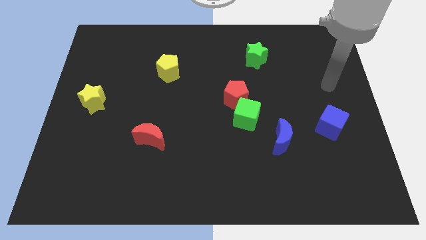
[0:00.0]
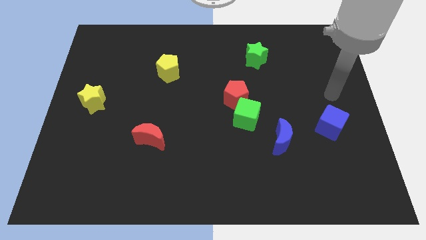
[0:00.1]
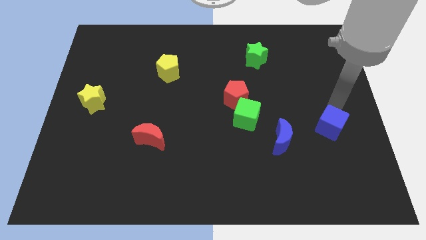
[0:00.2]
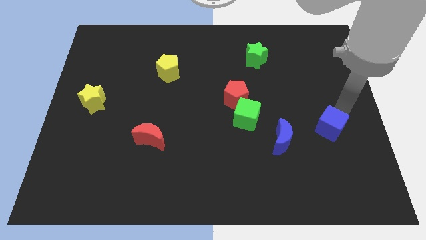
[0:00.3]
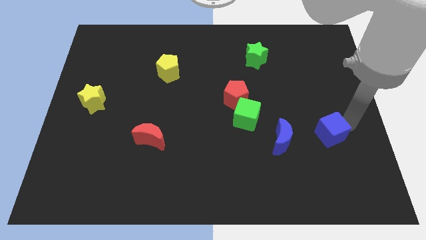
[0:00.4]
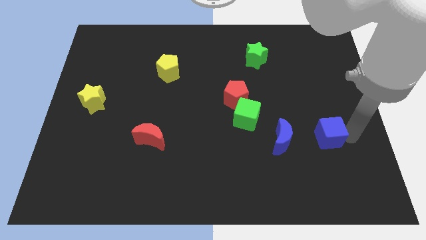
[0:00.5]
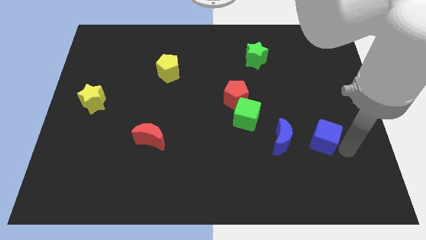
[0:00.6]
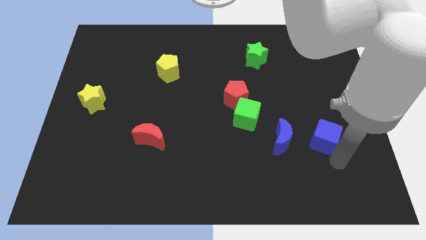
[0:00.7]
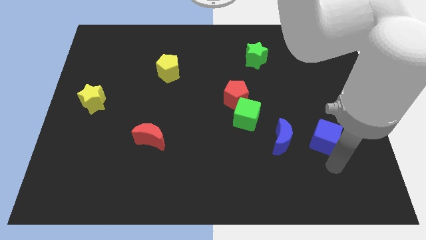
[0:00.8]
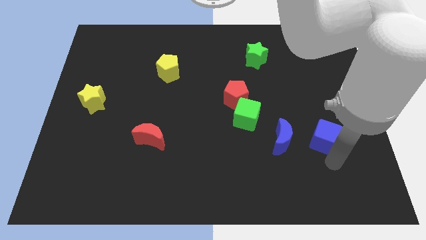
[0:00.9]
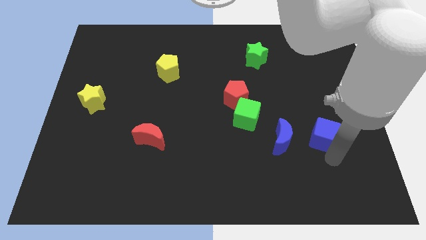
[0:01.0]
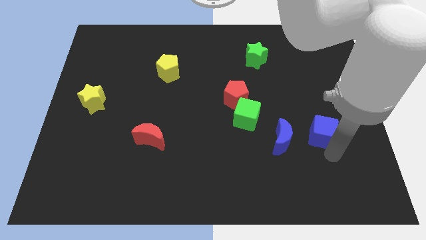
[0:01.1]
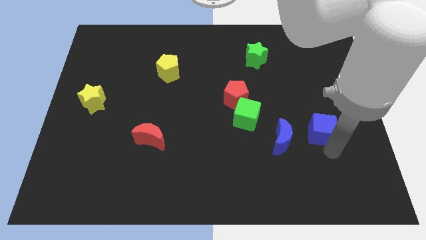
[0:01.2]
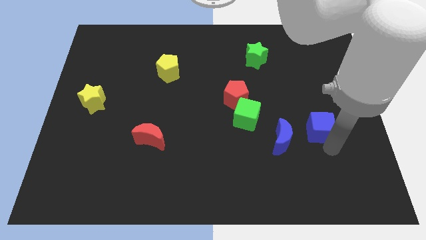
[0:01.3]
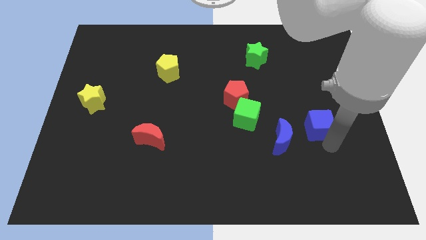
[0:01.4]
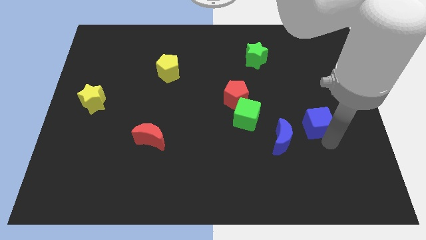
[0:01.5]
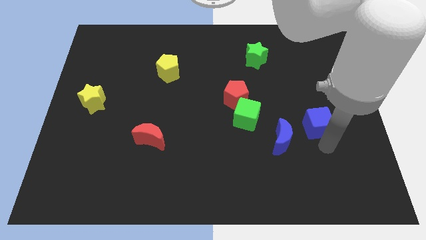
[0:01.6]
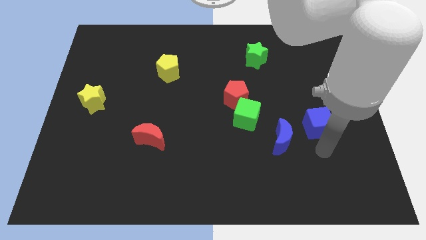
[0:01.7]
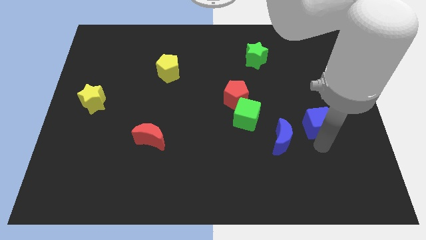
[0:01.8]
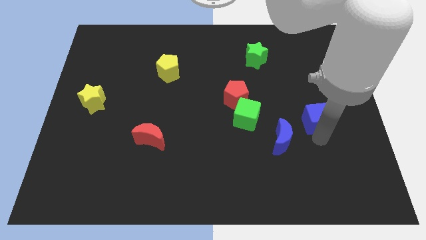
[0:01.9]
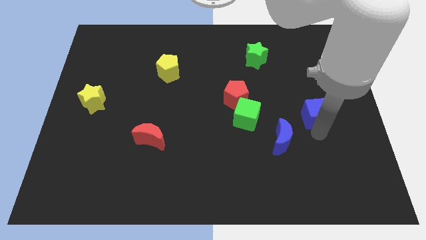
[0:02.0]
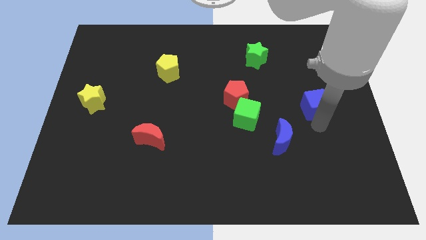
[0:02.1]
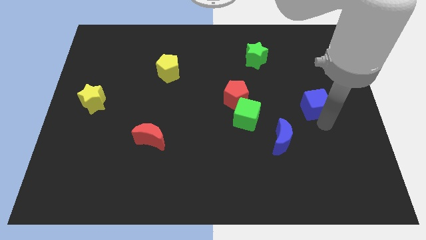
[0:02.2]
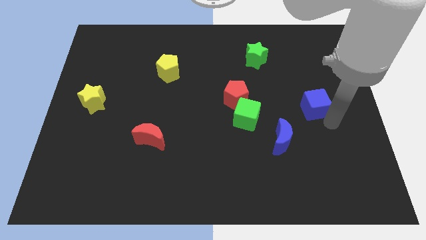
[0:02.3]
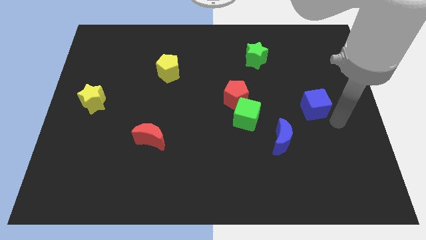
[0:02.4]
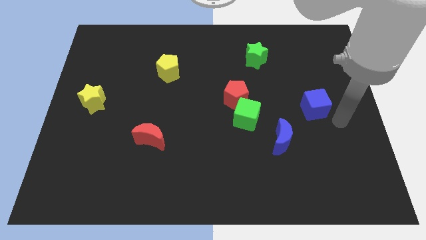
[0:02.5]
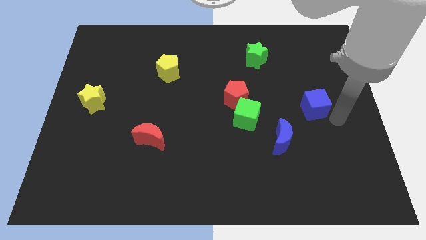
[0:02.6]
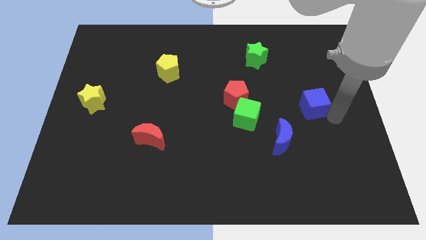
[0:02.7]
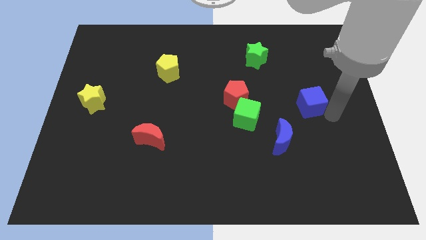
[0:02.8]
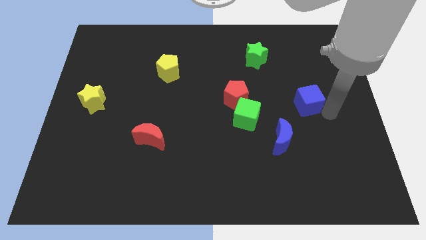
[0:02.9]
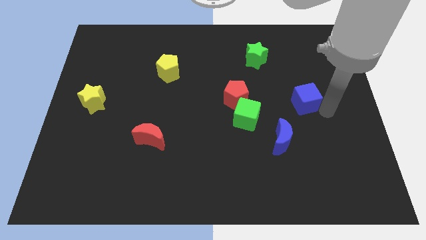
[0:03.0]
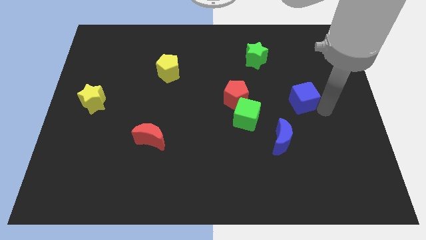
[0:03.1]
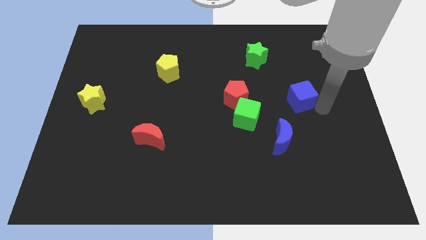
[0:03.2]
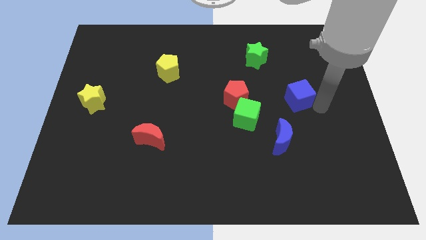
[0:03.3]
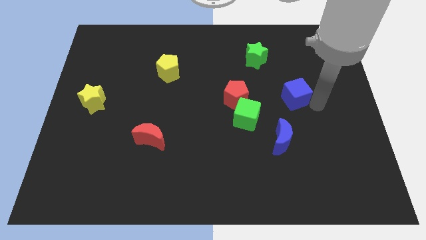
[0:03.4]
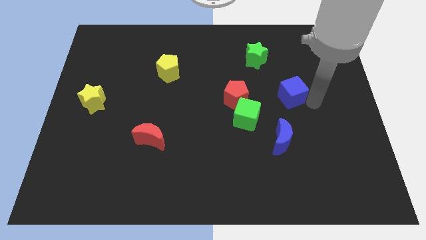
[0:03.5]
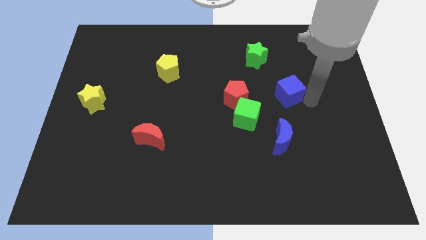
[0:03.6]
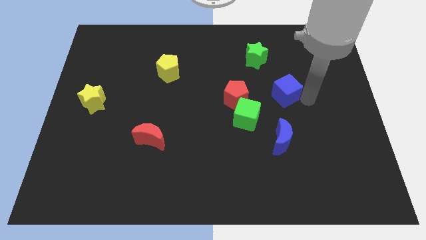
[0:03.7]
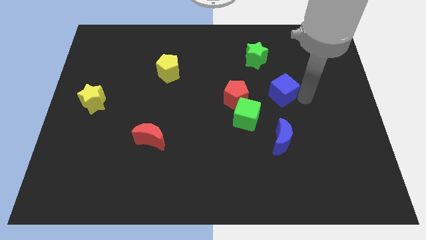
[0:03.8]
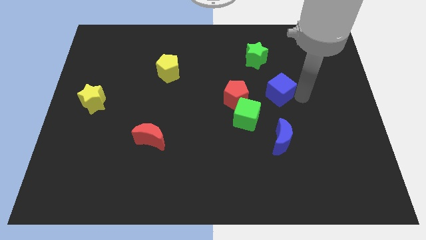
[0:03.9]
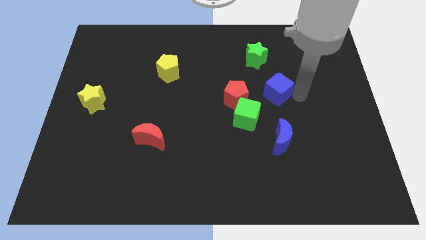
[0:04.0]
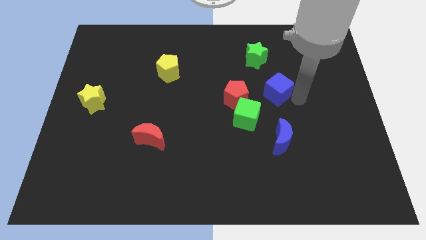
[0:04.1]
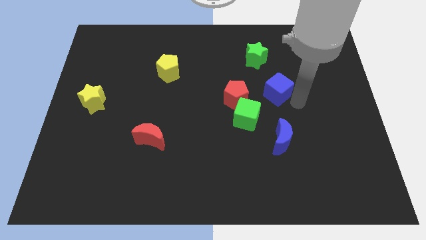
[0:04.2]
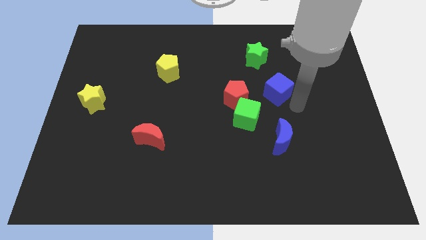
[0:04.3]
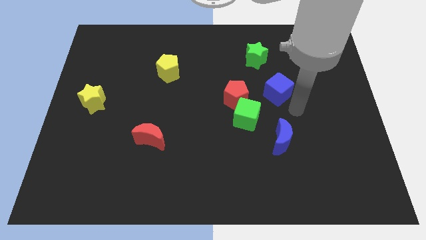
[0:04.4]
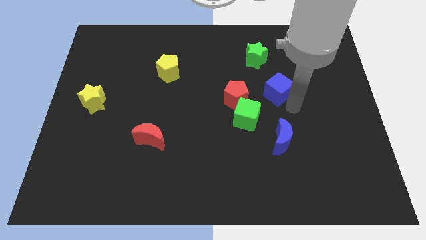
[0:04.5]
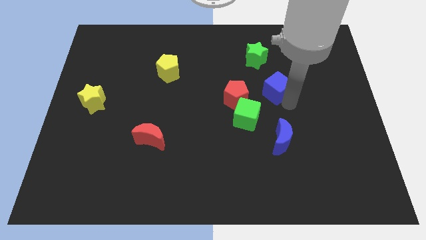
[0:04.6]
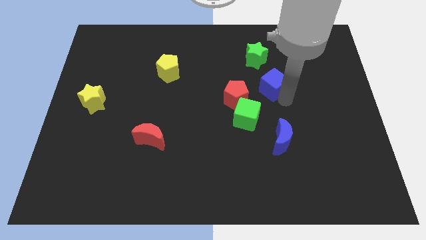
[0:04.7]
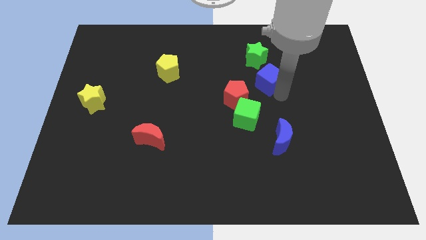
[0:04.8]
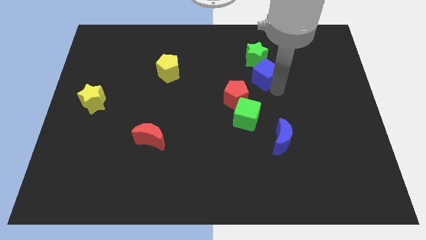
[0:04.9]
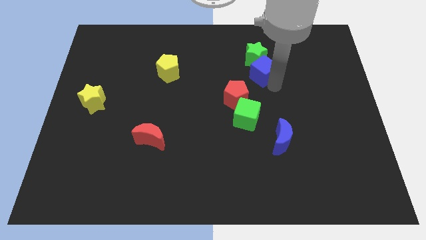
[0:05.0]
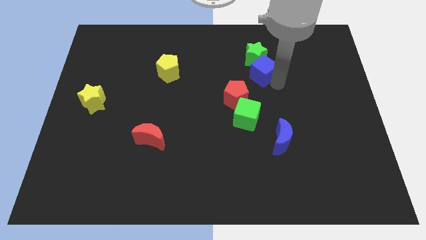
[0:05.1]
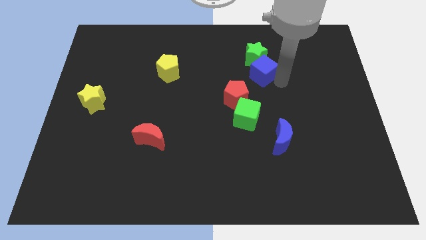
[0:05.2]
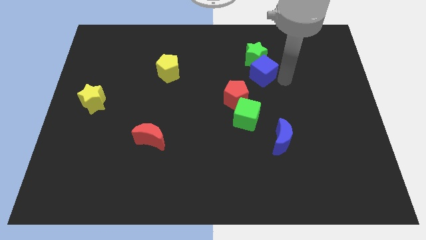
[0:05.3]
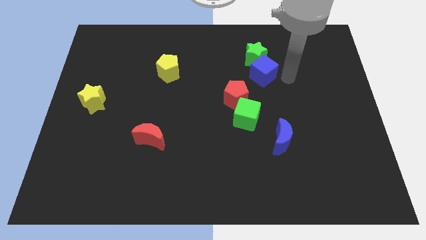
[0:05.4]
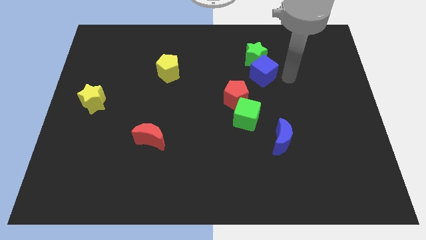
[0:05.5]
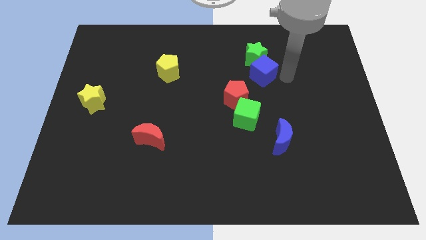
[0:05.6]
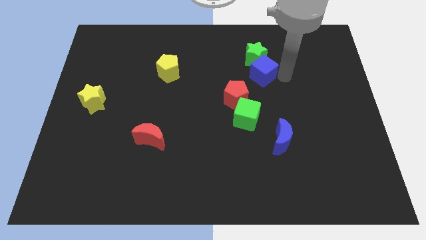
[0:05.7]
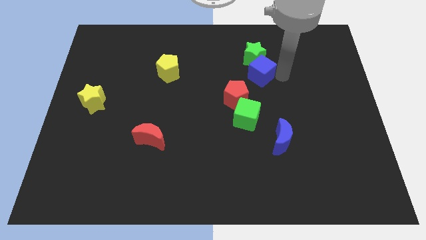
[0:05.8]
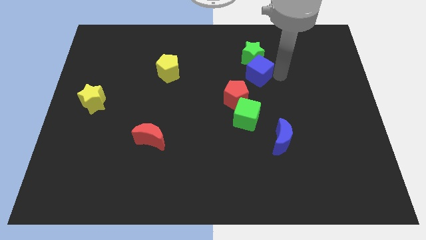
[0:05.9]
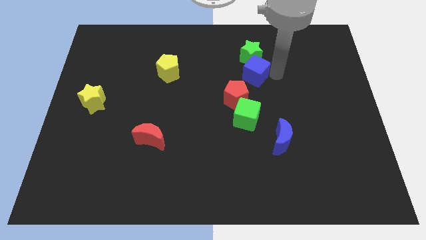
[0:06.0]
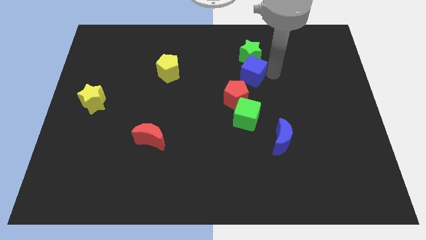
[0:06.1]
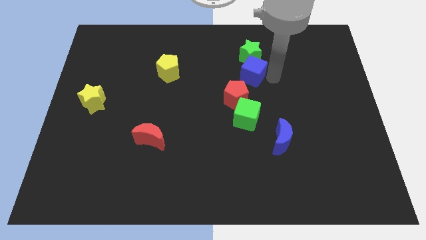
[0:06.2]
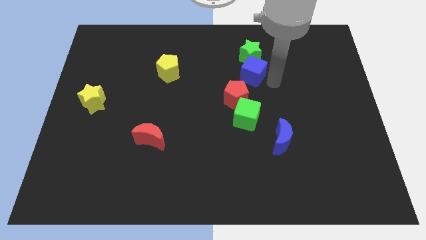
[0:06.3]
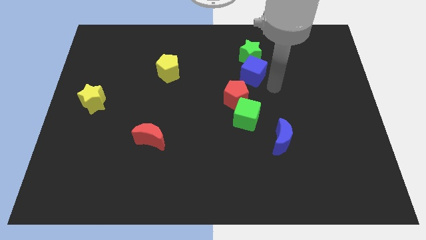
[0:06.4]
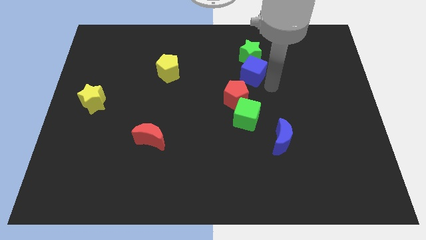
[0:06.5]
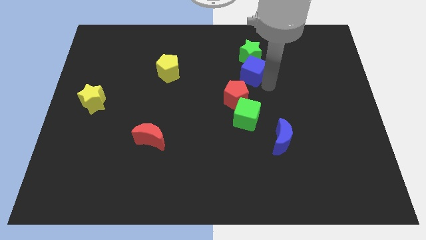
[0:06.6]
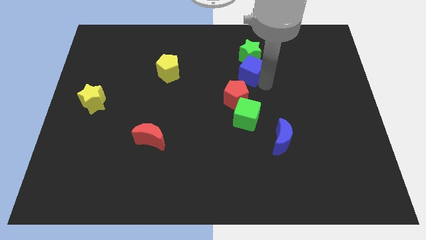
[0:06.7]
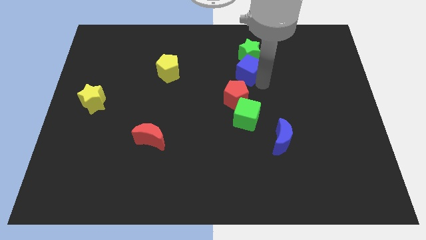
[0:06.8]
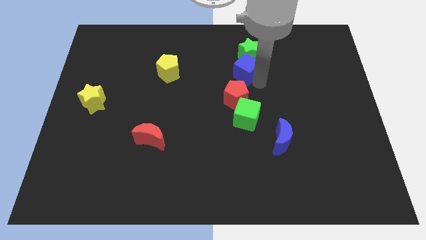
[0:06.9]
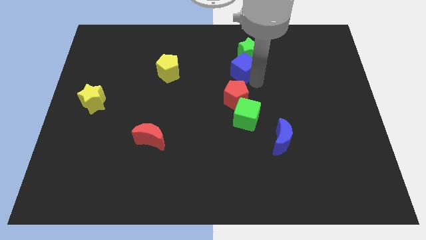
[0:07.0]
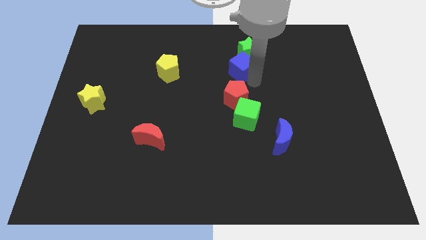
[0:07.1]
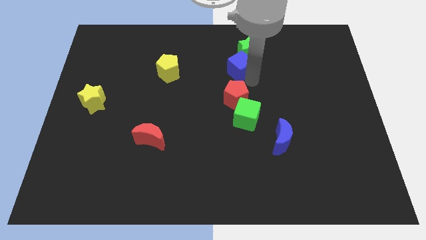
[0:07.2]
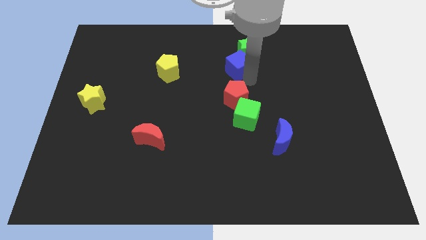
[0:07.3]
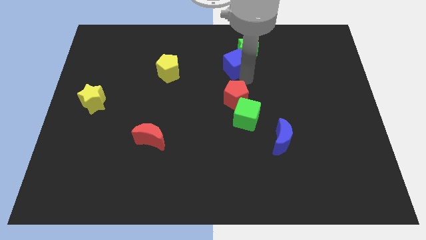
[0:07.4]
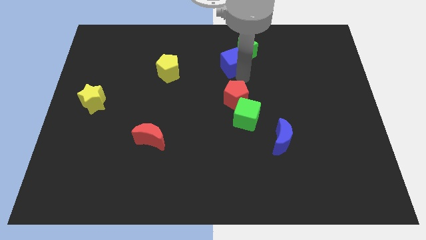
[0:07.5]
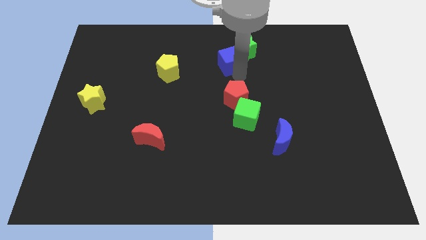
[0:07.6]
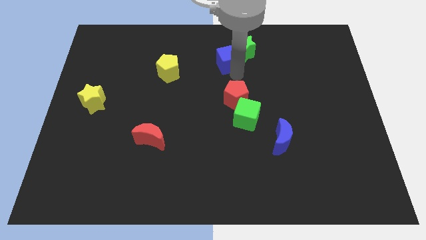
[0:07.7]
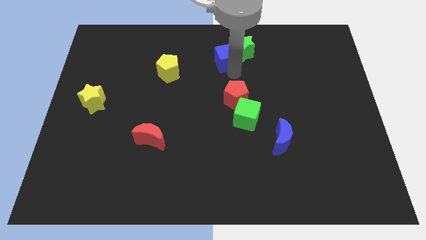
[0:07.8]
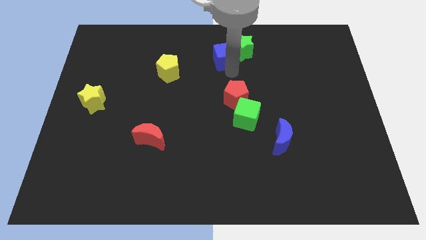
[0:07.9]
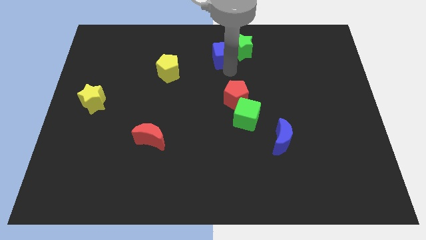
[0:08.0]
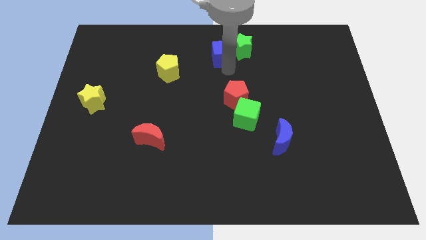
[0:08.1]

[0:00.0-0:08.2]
slide the blue cube to the towards your base
